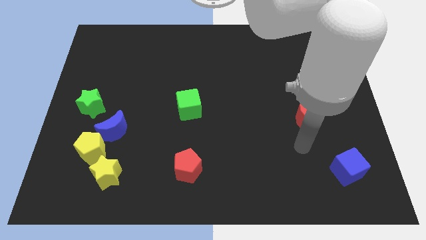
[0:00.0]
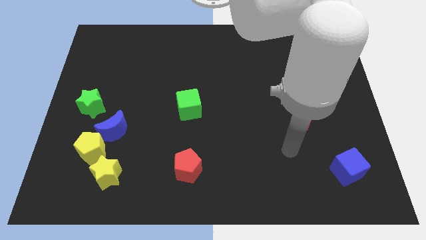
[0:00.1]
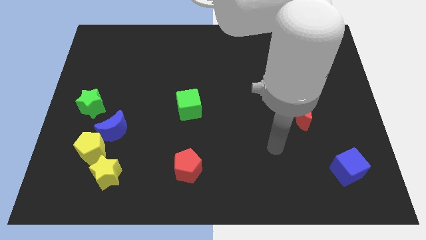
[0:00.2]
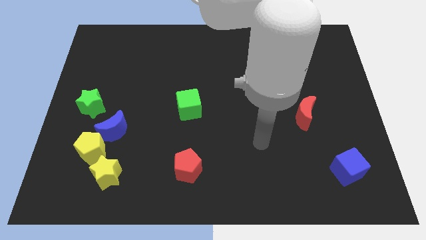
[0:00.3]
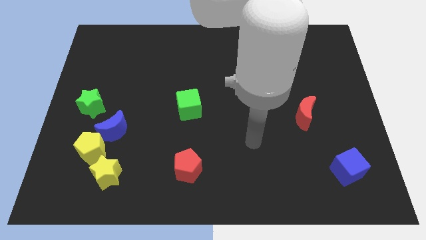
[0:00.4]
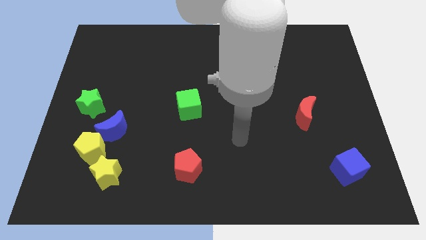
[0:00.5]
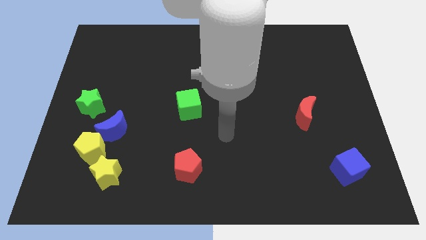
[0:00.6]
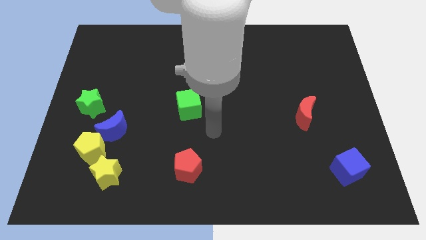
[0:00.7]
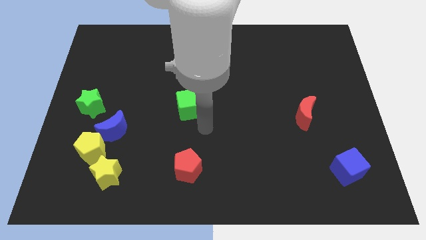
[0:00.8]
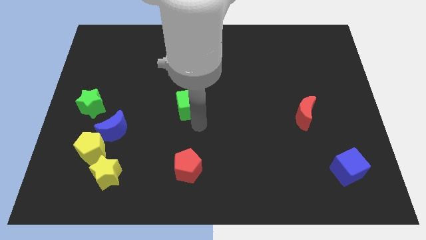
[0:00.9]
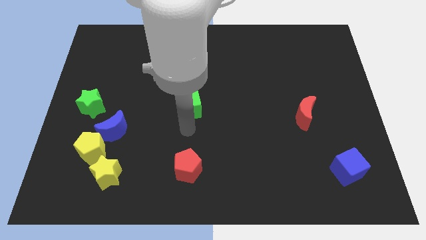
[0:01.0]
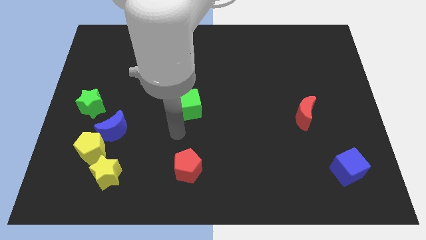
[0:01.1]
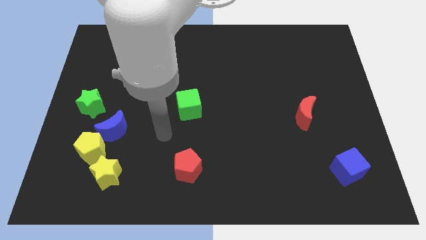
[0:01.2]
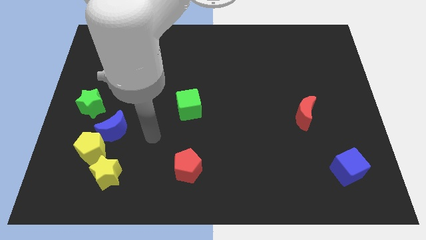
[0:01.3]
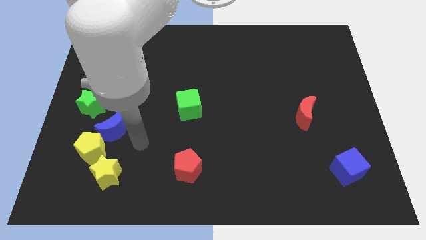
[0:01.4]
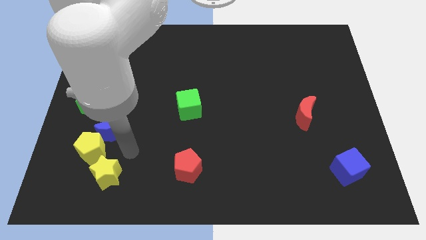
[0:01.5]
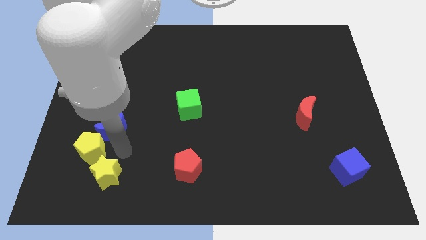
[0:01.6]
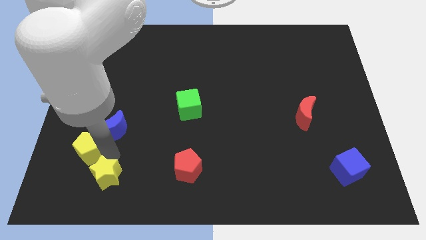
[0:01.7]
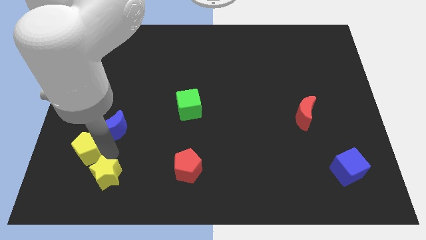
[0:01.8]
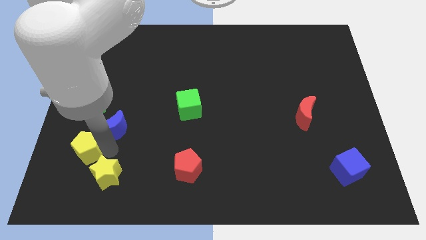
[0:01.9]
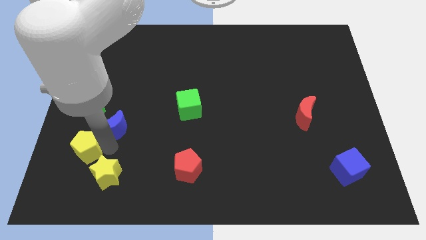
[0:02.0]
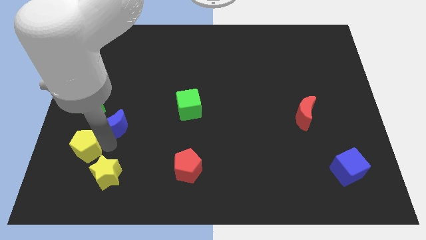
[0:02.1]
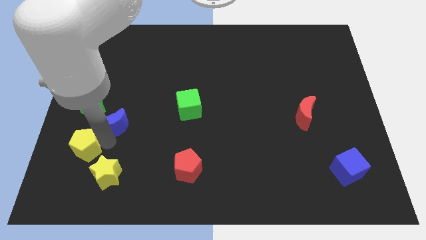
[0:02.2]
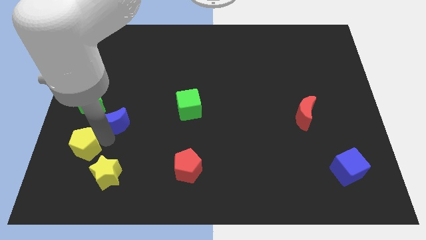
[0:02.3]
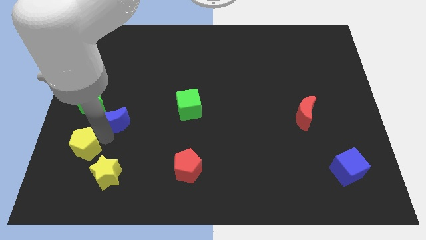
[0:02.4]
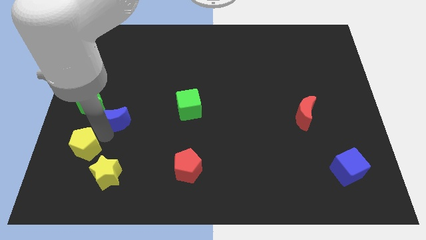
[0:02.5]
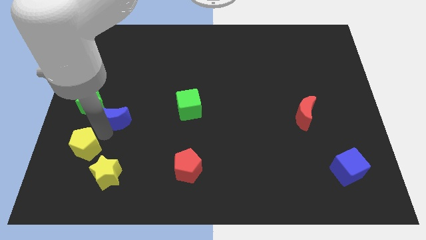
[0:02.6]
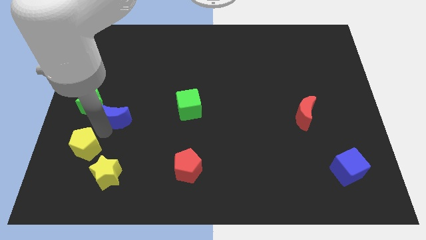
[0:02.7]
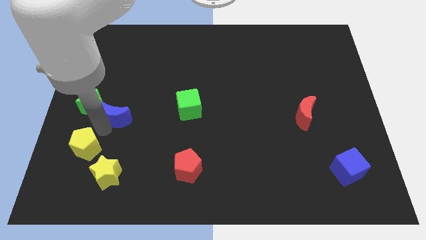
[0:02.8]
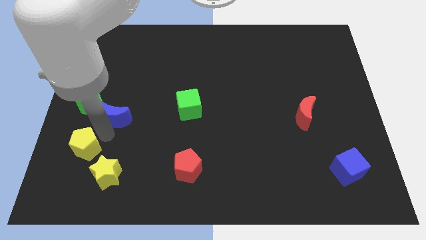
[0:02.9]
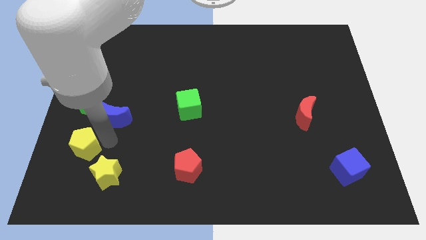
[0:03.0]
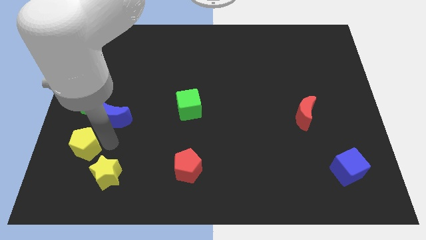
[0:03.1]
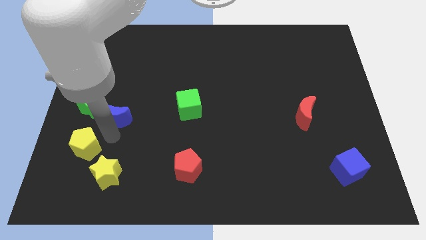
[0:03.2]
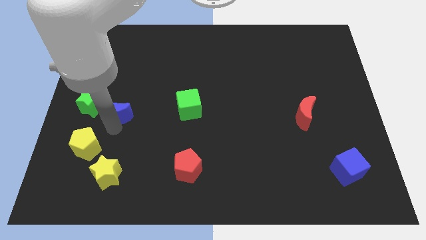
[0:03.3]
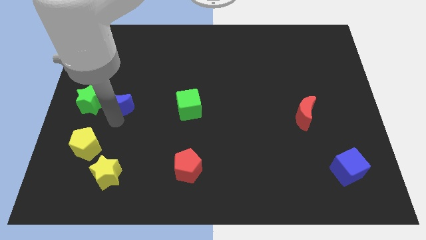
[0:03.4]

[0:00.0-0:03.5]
slide the blue moon up a bit

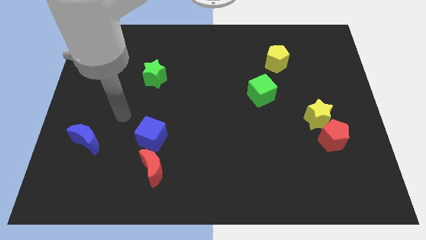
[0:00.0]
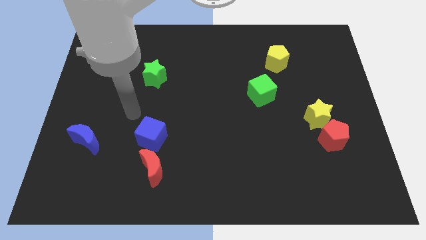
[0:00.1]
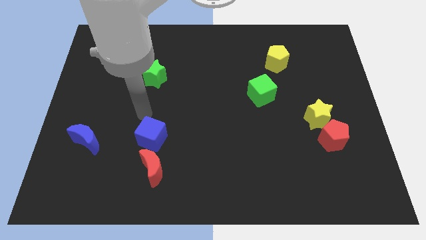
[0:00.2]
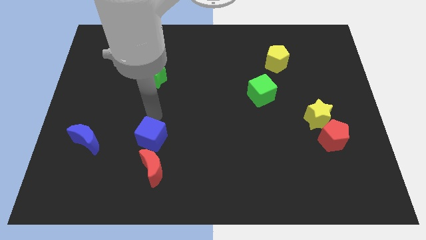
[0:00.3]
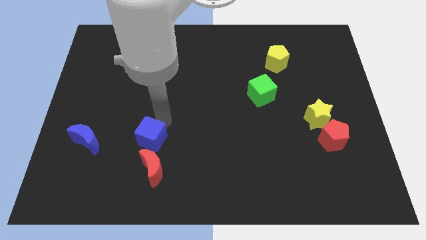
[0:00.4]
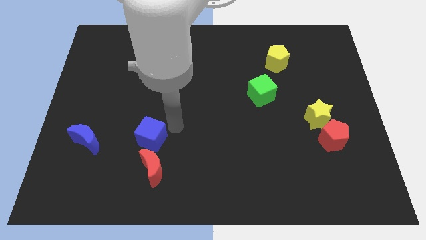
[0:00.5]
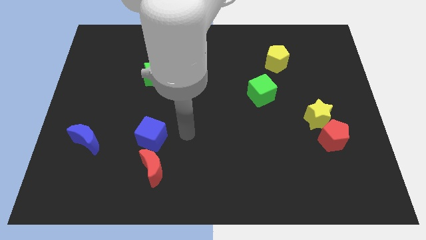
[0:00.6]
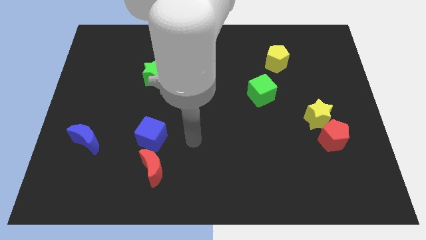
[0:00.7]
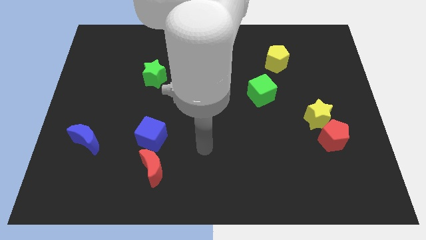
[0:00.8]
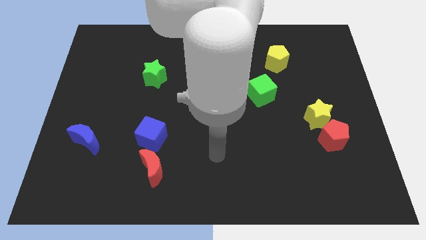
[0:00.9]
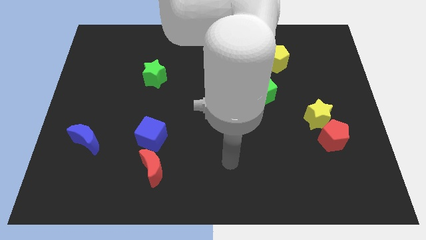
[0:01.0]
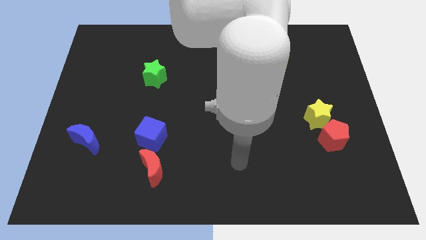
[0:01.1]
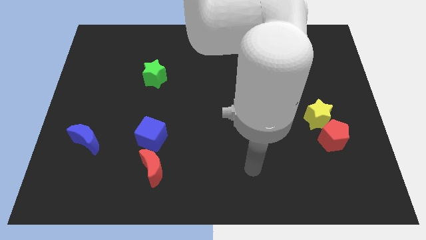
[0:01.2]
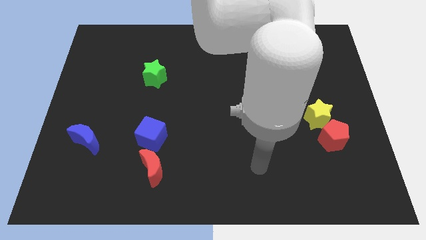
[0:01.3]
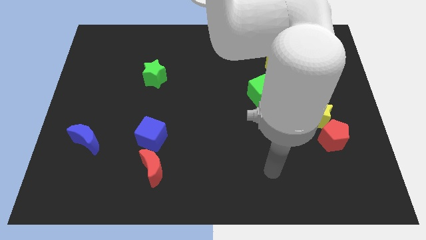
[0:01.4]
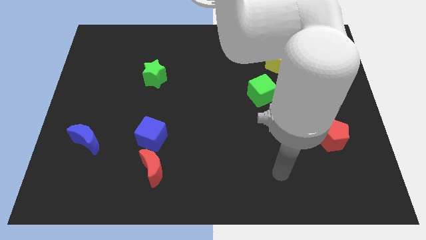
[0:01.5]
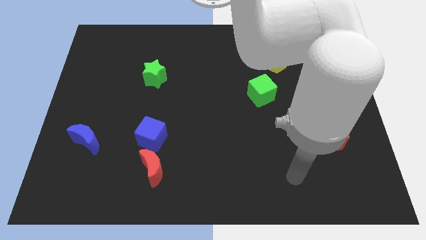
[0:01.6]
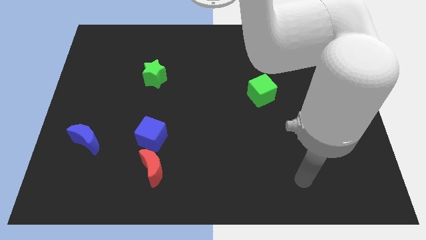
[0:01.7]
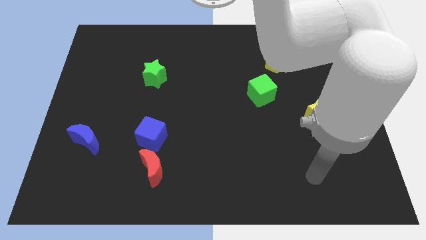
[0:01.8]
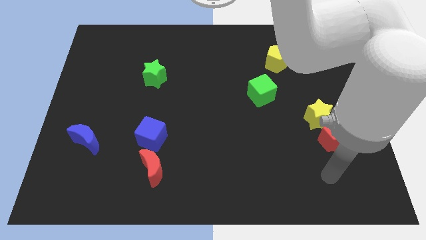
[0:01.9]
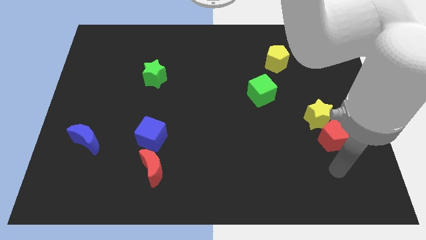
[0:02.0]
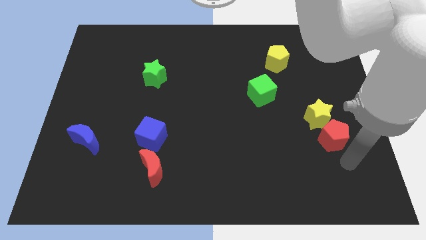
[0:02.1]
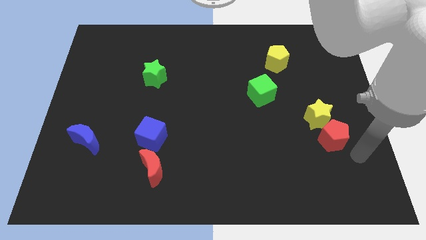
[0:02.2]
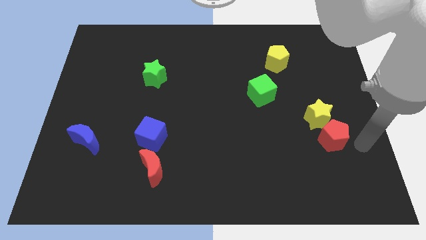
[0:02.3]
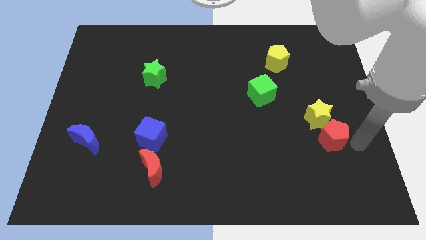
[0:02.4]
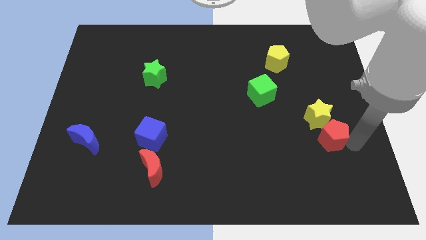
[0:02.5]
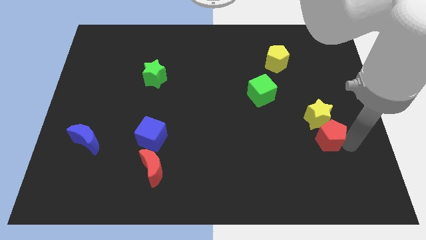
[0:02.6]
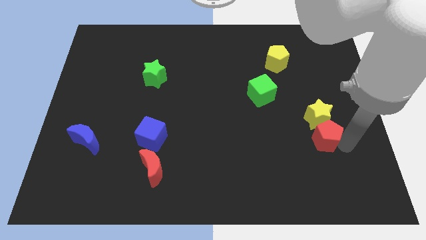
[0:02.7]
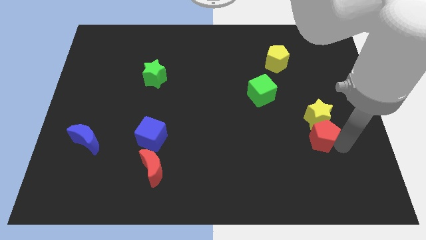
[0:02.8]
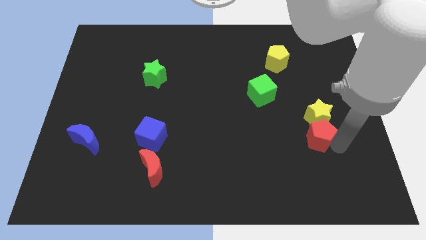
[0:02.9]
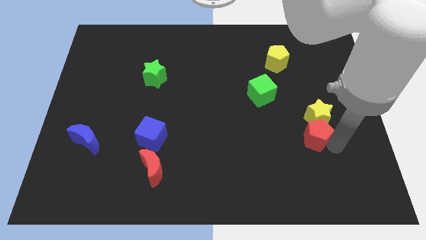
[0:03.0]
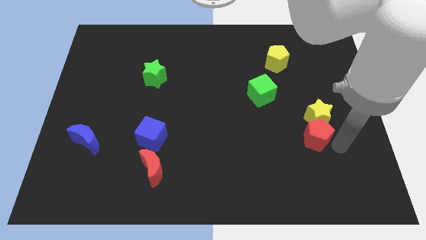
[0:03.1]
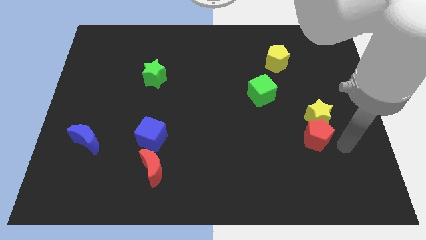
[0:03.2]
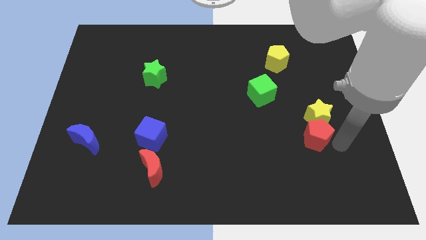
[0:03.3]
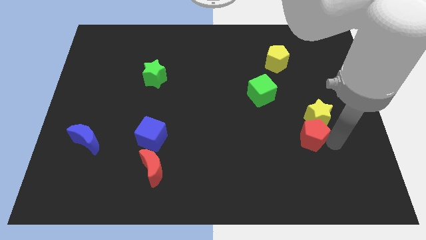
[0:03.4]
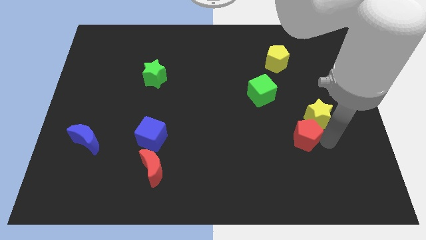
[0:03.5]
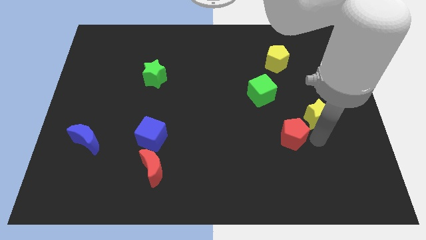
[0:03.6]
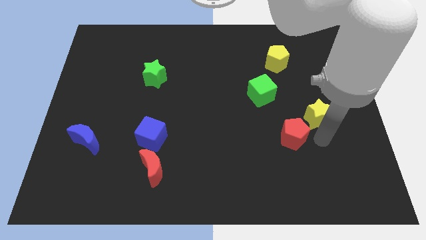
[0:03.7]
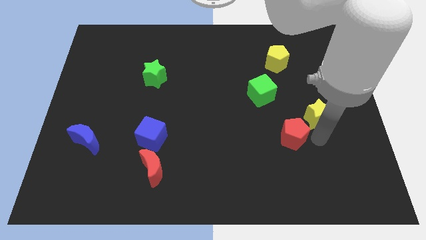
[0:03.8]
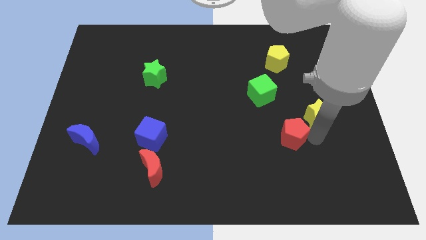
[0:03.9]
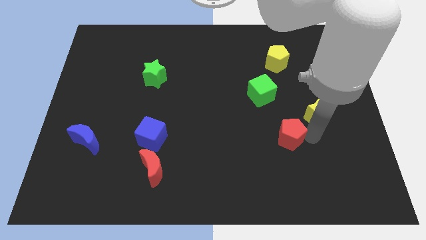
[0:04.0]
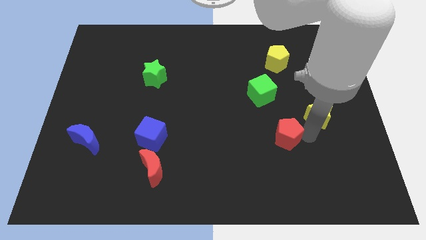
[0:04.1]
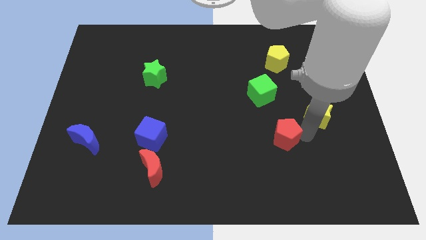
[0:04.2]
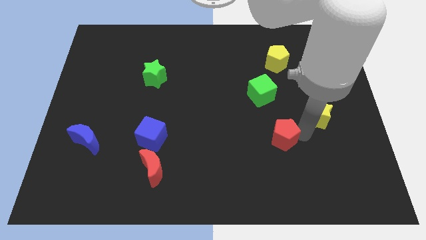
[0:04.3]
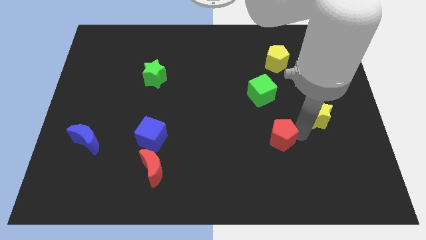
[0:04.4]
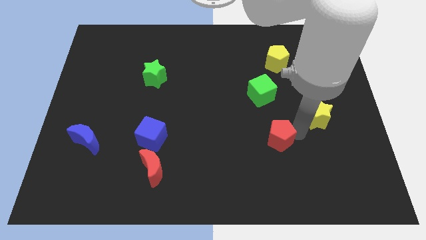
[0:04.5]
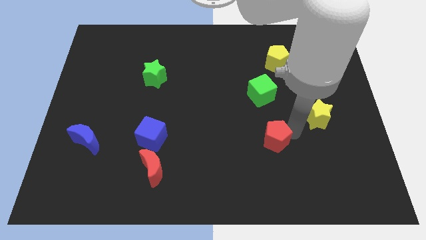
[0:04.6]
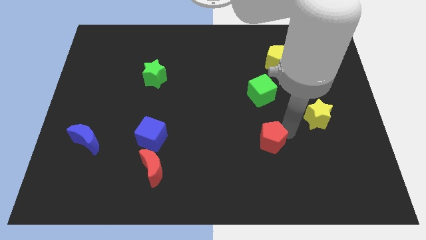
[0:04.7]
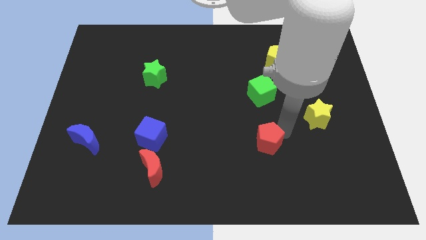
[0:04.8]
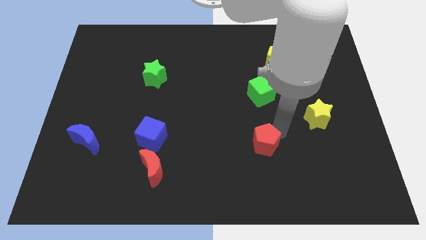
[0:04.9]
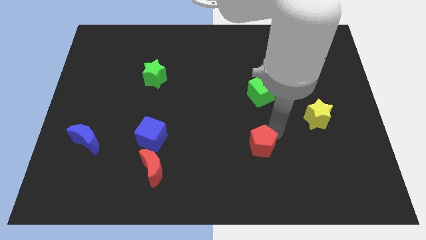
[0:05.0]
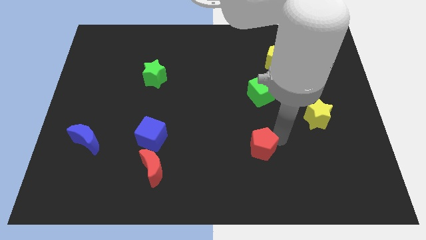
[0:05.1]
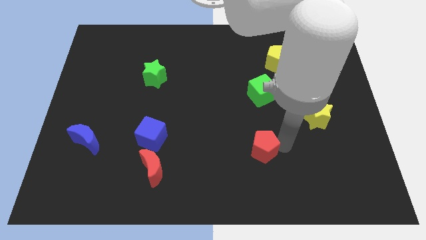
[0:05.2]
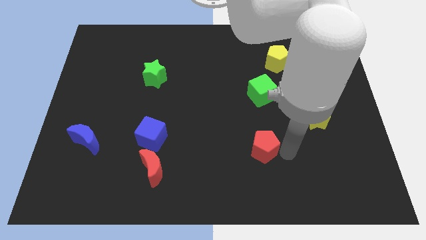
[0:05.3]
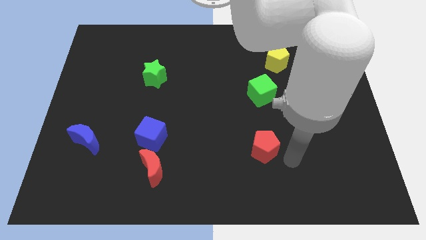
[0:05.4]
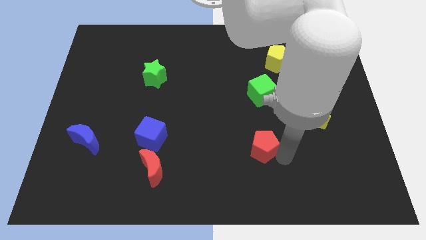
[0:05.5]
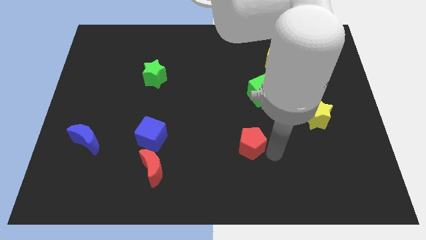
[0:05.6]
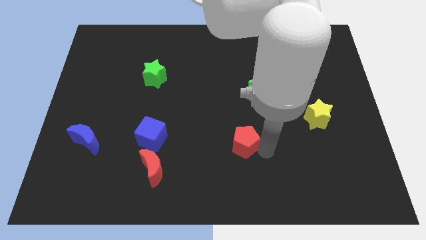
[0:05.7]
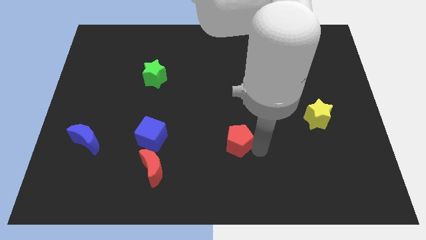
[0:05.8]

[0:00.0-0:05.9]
push the red pentagon left
